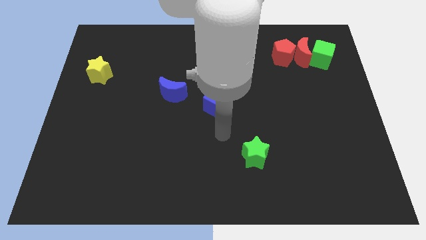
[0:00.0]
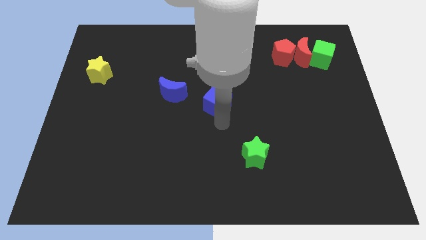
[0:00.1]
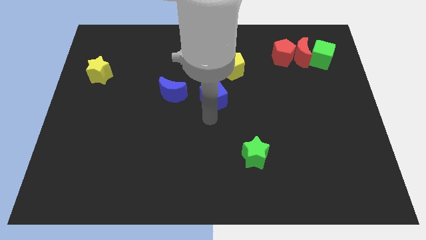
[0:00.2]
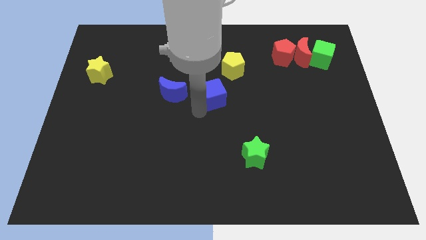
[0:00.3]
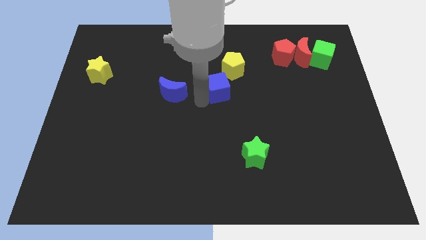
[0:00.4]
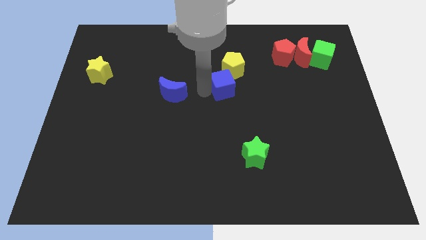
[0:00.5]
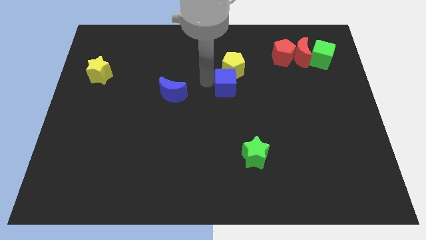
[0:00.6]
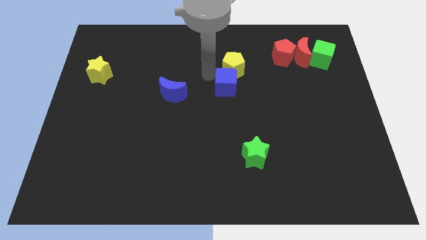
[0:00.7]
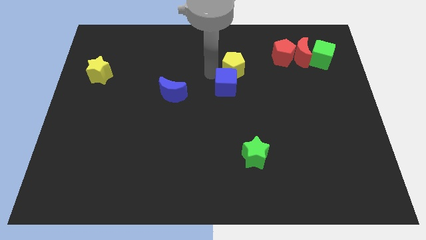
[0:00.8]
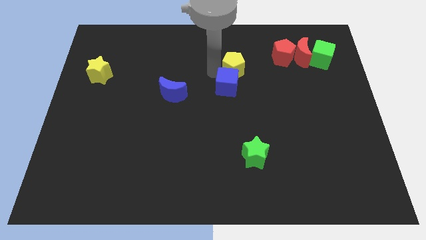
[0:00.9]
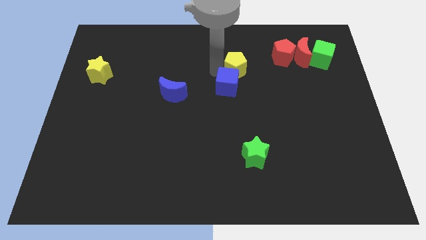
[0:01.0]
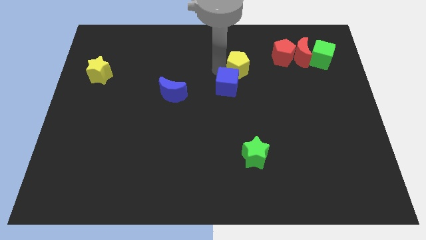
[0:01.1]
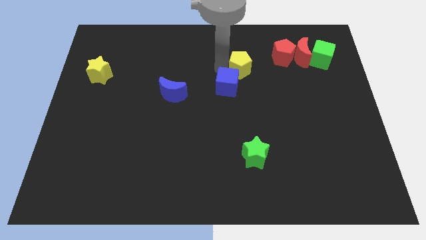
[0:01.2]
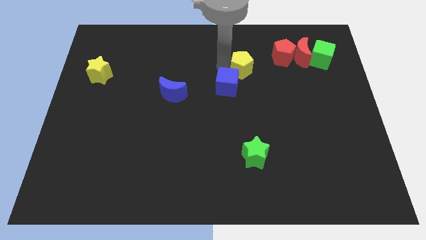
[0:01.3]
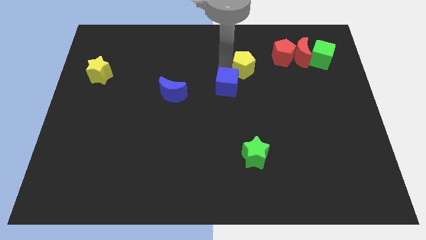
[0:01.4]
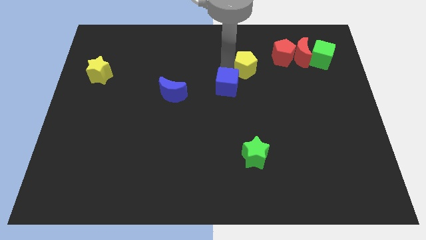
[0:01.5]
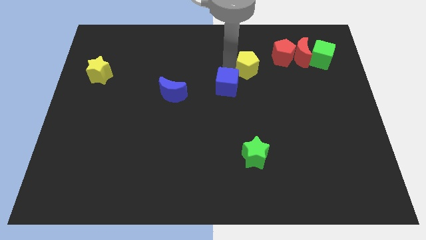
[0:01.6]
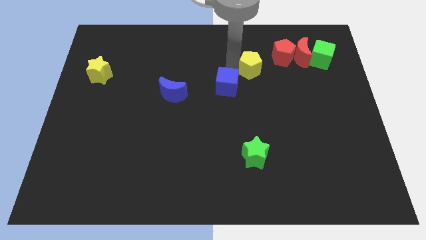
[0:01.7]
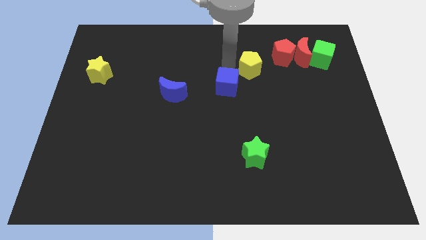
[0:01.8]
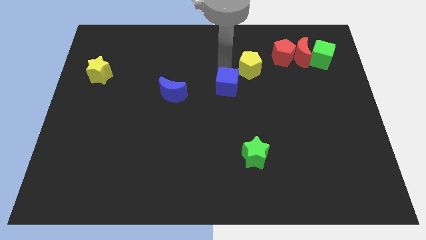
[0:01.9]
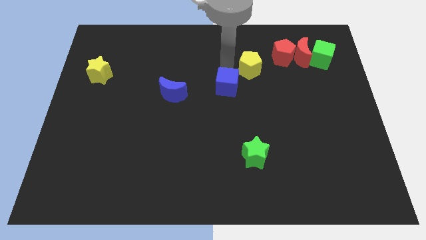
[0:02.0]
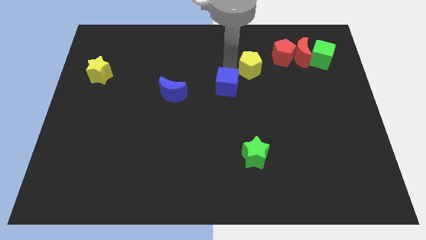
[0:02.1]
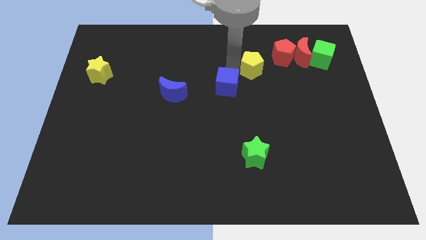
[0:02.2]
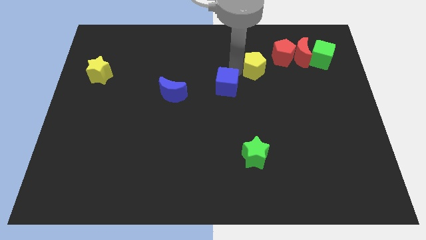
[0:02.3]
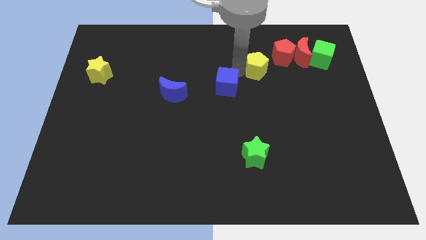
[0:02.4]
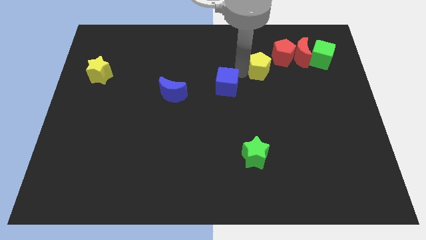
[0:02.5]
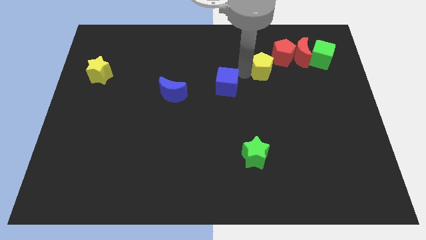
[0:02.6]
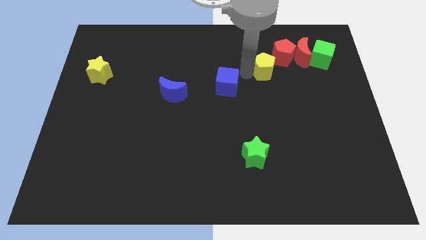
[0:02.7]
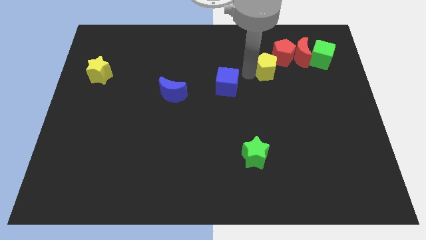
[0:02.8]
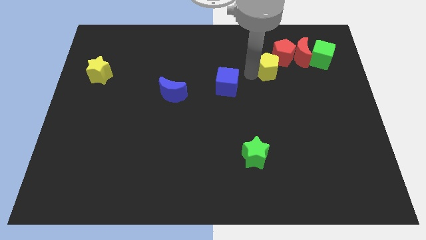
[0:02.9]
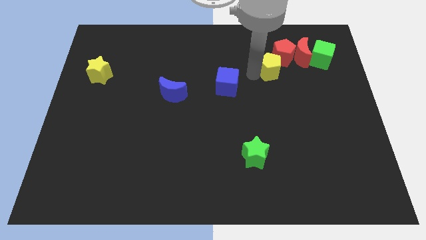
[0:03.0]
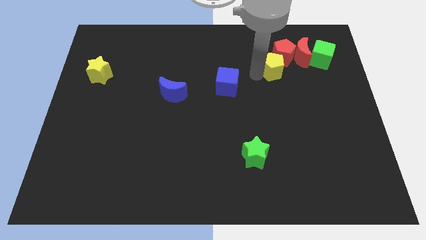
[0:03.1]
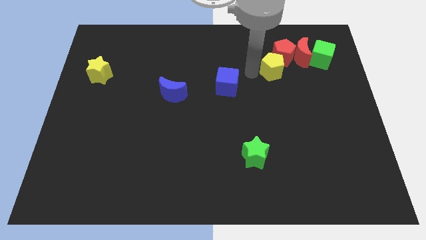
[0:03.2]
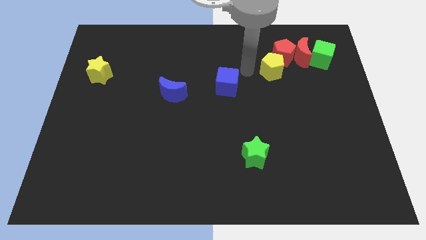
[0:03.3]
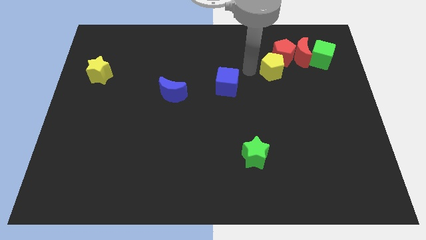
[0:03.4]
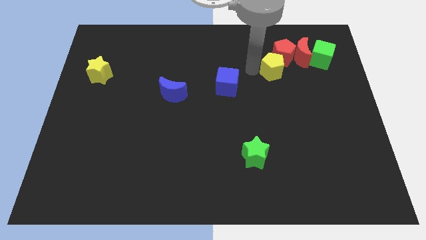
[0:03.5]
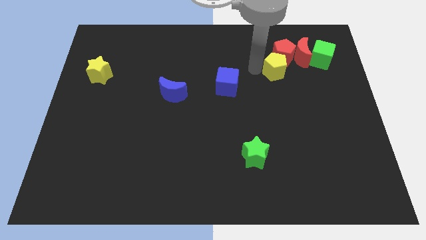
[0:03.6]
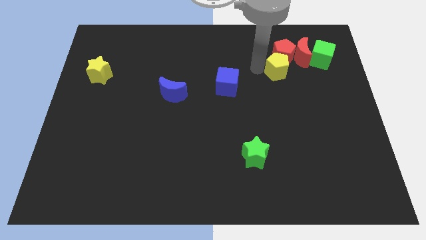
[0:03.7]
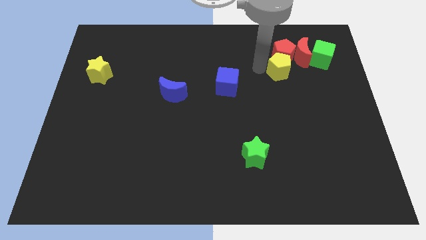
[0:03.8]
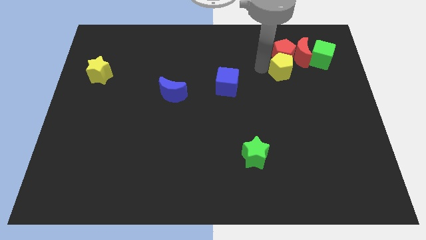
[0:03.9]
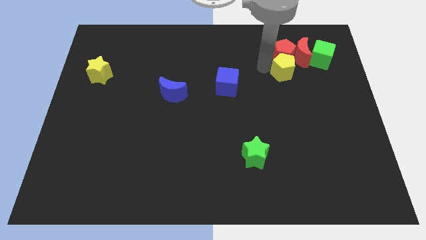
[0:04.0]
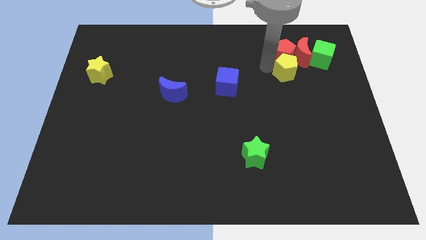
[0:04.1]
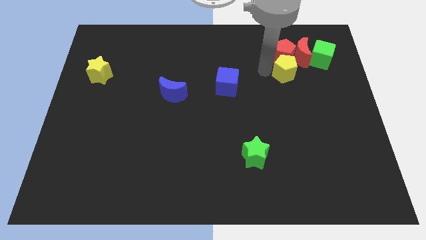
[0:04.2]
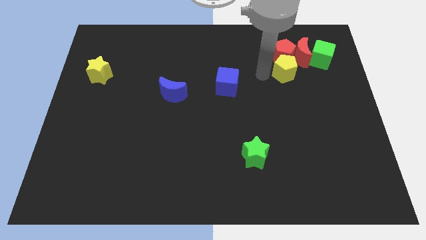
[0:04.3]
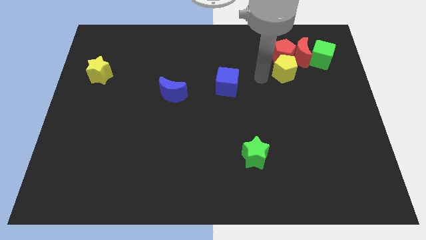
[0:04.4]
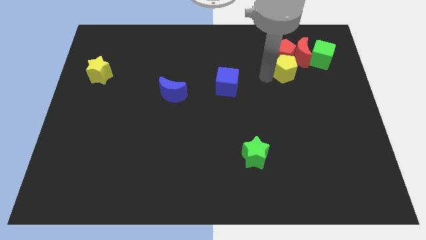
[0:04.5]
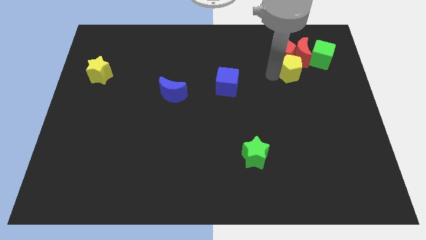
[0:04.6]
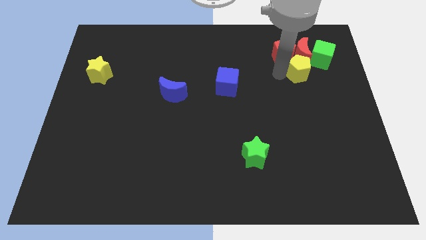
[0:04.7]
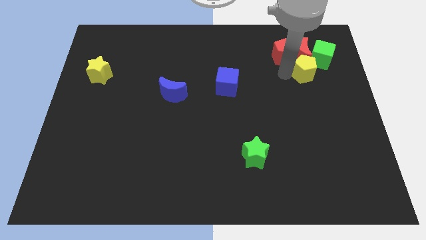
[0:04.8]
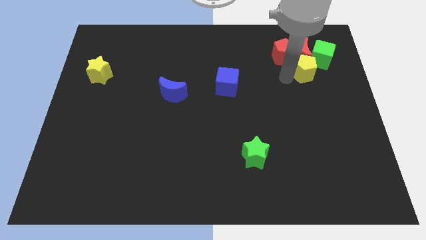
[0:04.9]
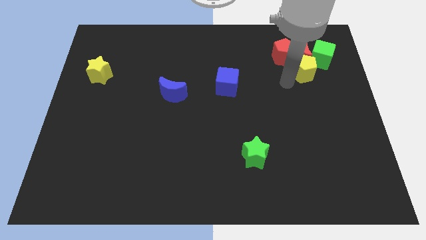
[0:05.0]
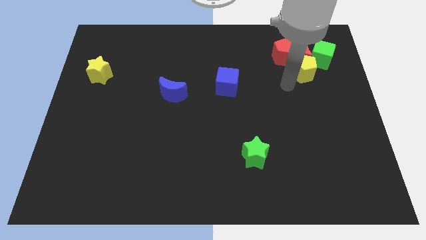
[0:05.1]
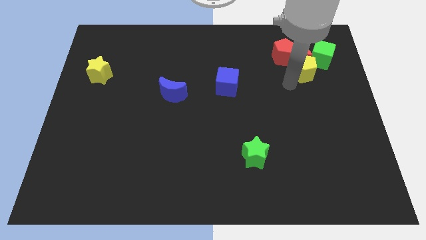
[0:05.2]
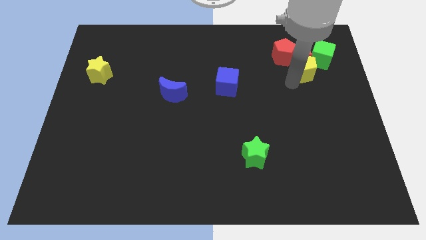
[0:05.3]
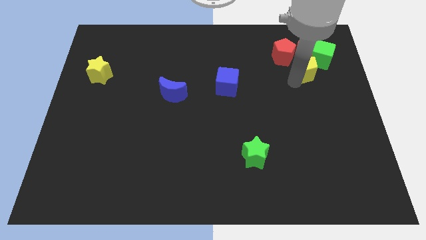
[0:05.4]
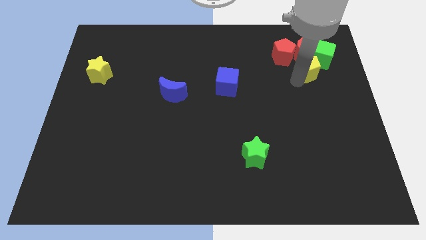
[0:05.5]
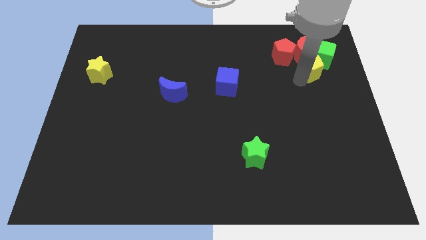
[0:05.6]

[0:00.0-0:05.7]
move the yellow pentagon to the green cube

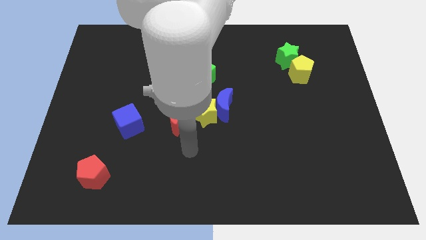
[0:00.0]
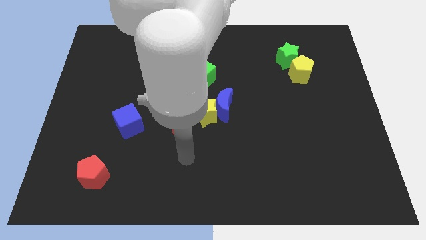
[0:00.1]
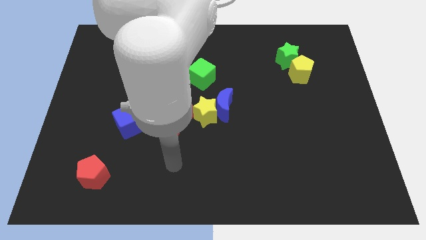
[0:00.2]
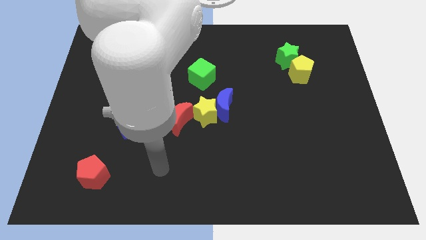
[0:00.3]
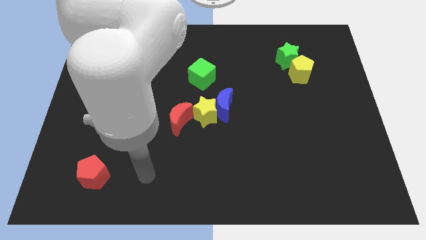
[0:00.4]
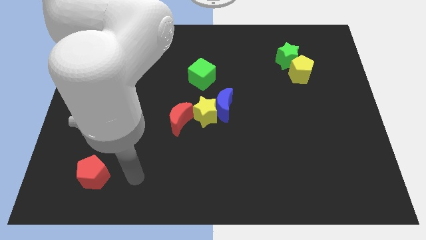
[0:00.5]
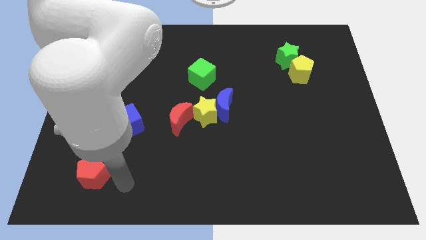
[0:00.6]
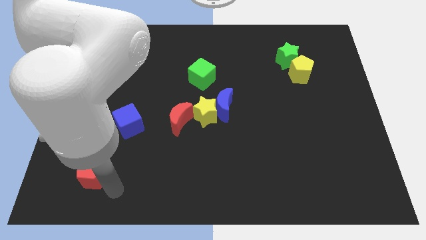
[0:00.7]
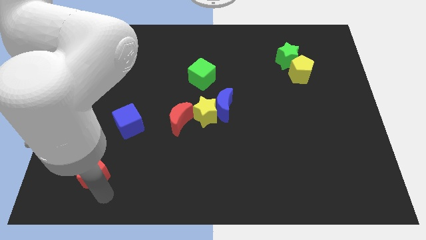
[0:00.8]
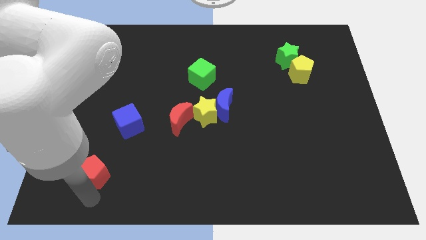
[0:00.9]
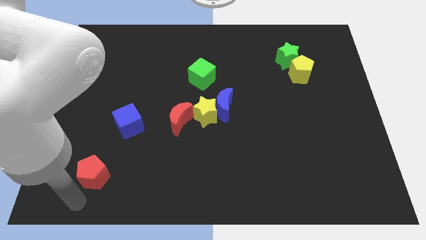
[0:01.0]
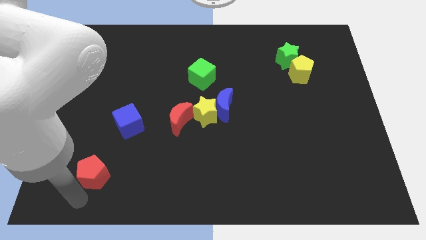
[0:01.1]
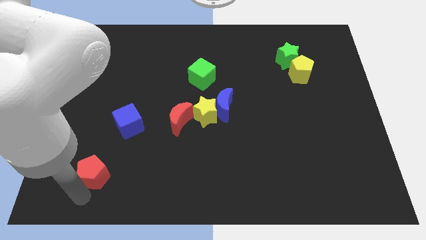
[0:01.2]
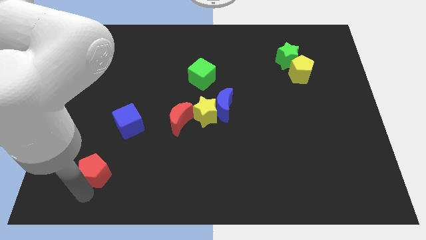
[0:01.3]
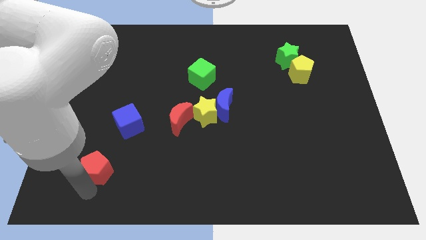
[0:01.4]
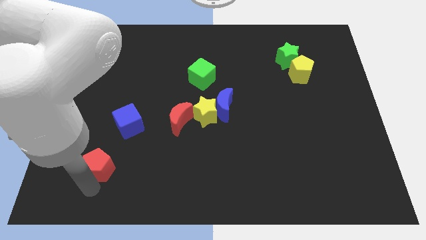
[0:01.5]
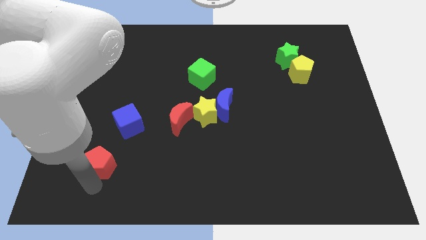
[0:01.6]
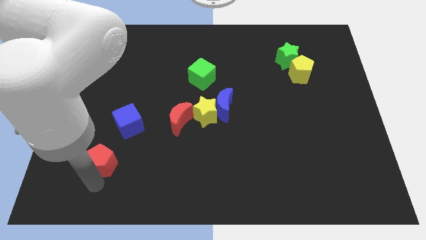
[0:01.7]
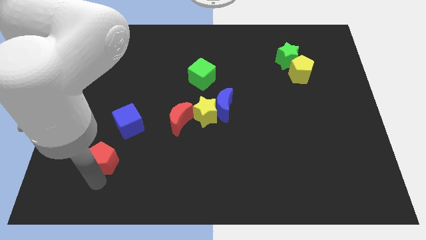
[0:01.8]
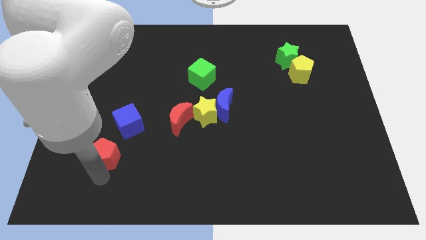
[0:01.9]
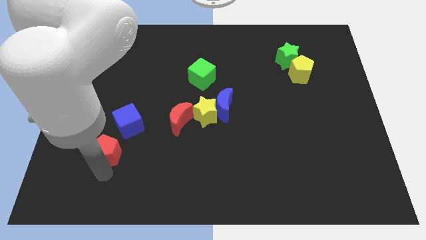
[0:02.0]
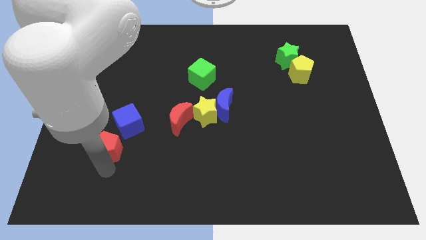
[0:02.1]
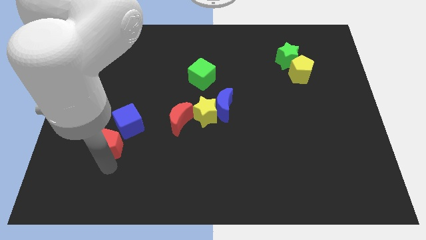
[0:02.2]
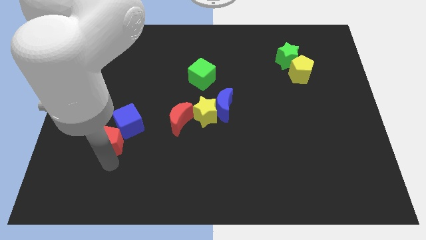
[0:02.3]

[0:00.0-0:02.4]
move the red pentagon towards the blue cube
